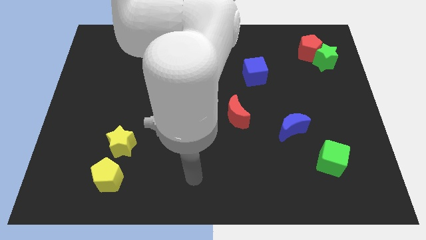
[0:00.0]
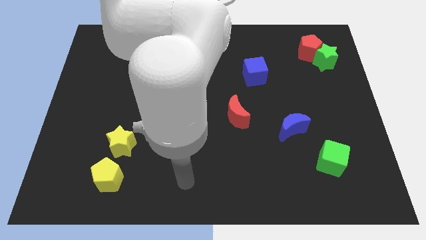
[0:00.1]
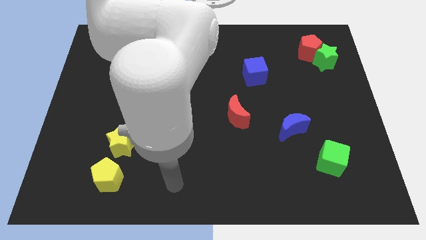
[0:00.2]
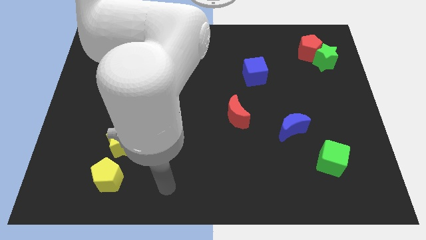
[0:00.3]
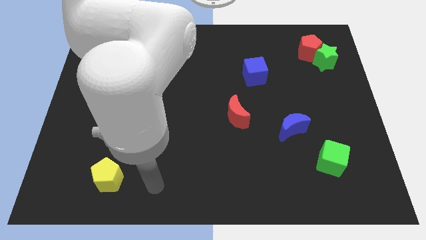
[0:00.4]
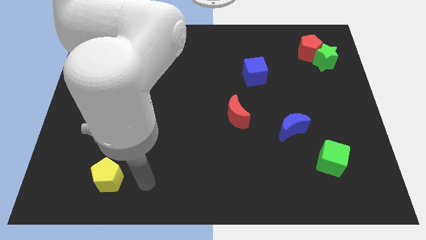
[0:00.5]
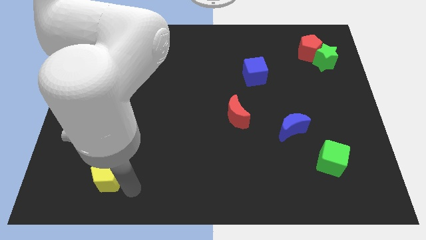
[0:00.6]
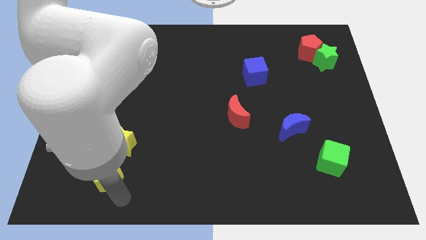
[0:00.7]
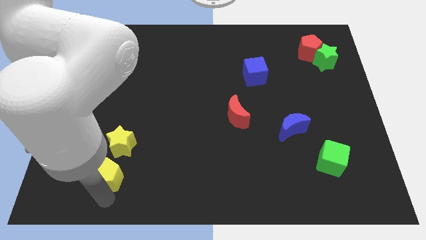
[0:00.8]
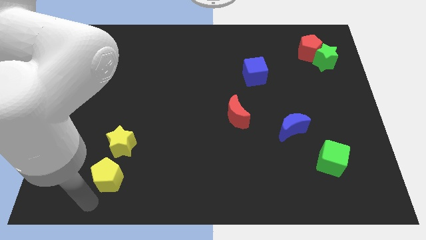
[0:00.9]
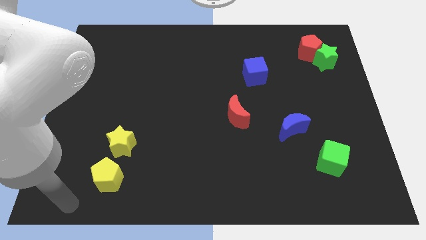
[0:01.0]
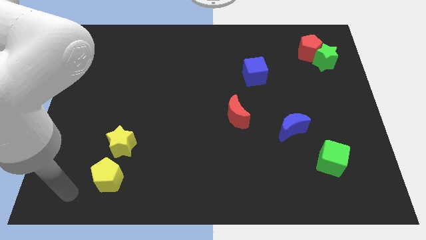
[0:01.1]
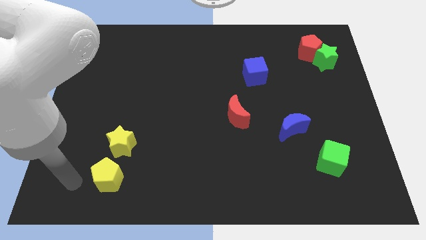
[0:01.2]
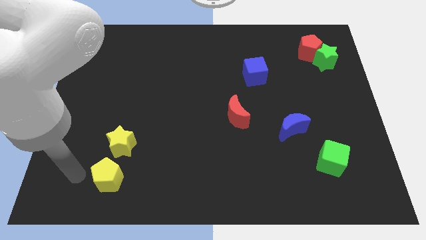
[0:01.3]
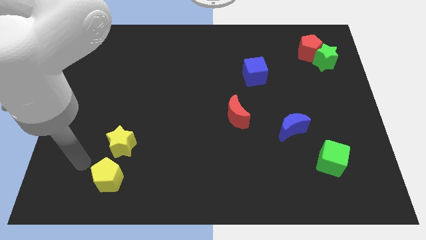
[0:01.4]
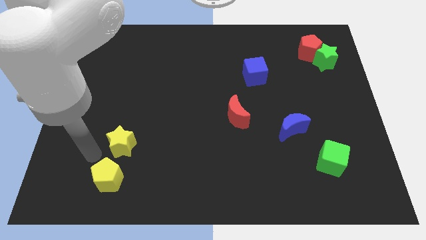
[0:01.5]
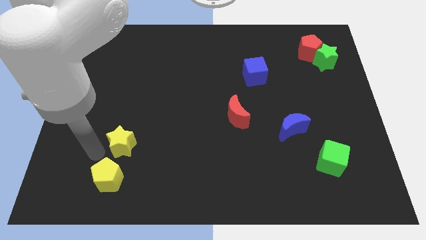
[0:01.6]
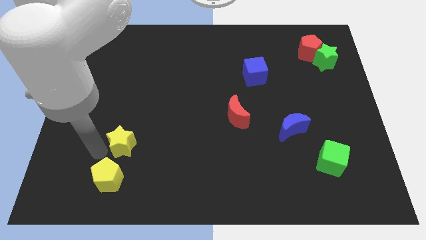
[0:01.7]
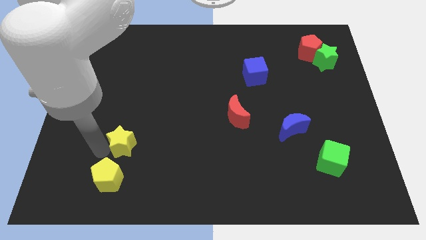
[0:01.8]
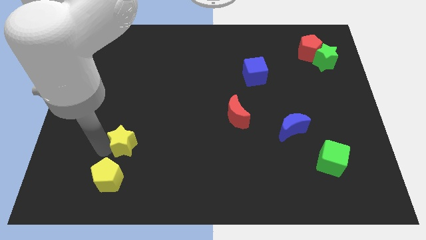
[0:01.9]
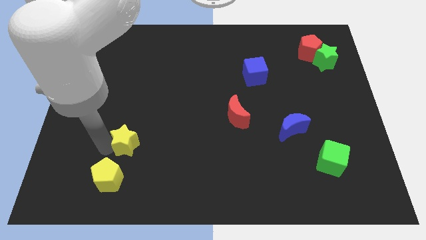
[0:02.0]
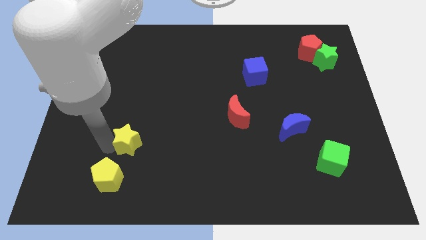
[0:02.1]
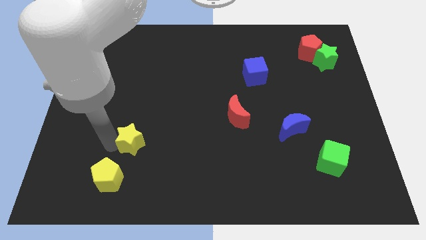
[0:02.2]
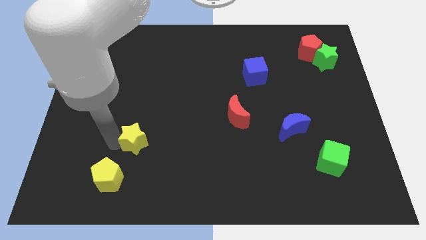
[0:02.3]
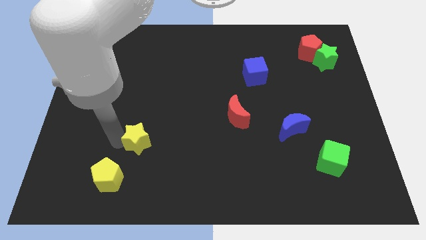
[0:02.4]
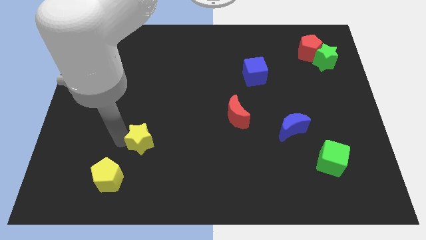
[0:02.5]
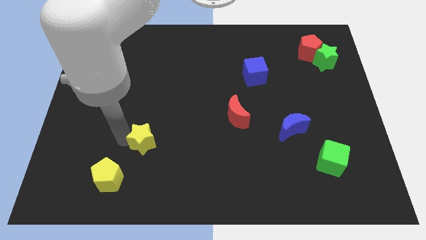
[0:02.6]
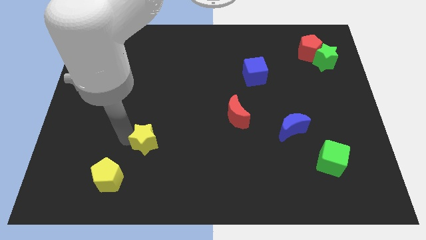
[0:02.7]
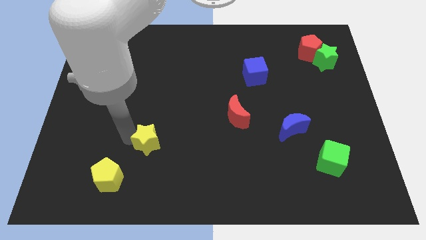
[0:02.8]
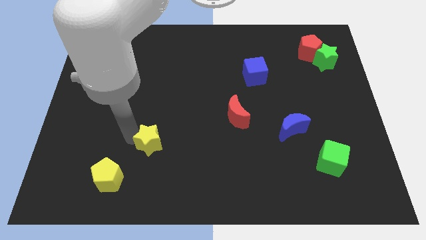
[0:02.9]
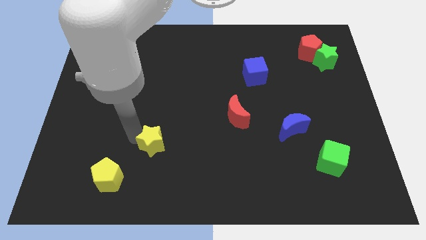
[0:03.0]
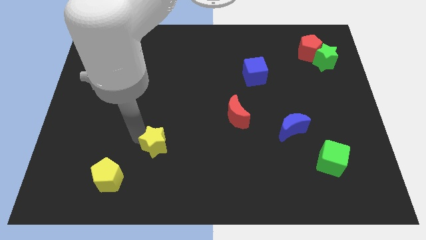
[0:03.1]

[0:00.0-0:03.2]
slightly push the yellow star to the right

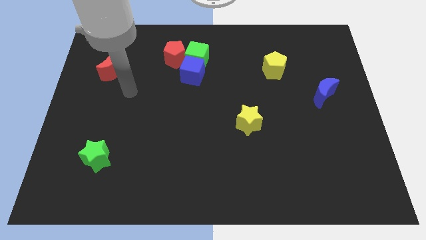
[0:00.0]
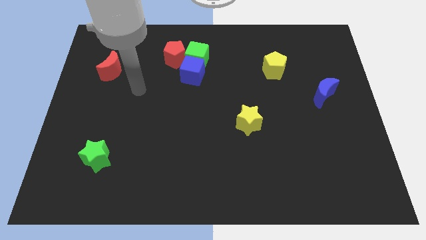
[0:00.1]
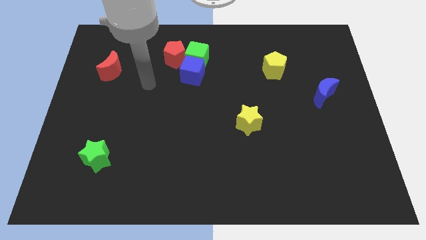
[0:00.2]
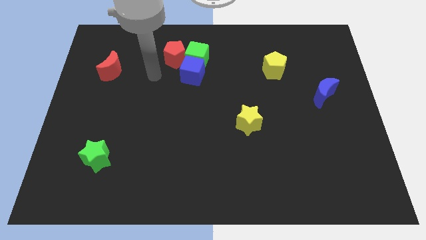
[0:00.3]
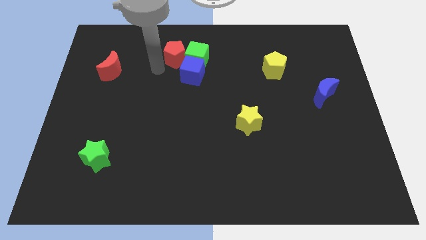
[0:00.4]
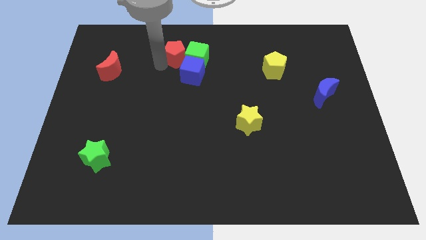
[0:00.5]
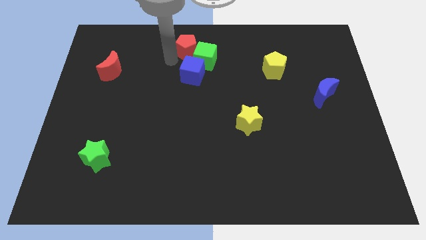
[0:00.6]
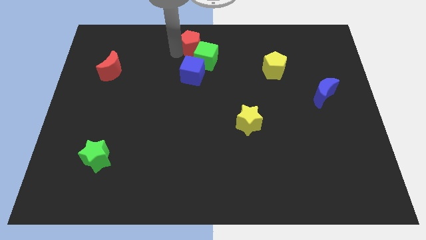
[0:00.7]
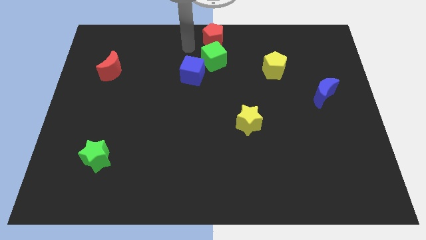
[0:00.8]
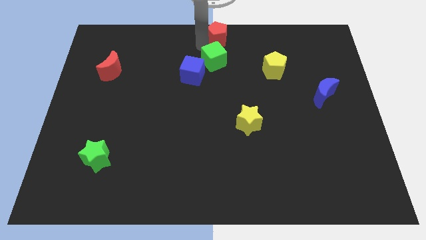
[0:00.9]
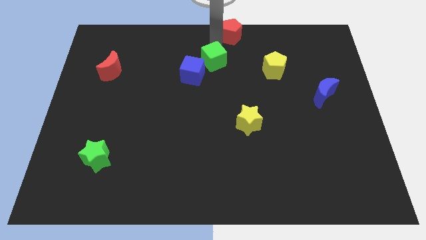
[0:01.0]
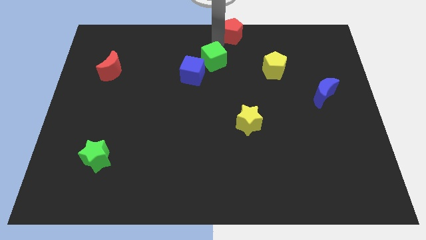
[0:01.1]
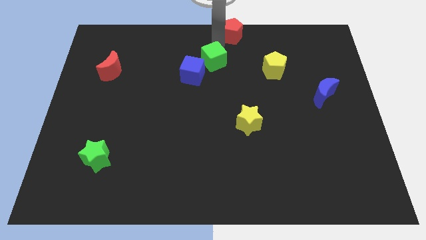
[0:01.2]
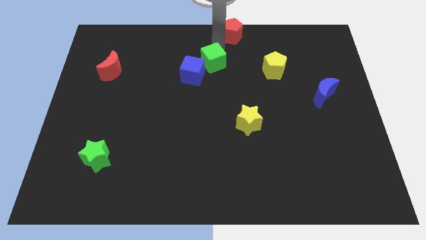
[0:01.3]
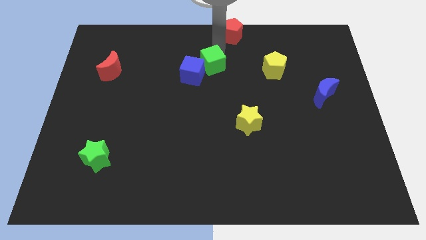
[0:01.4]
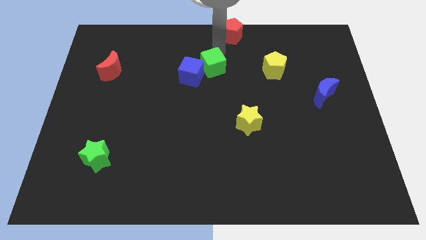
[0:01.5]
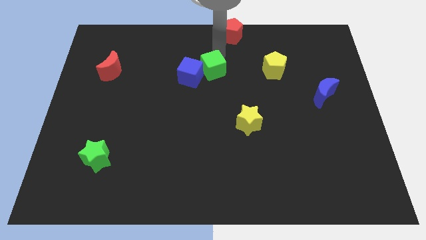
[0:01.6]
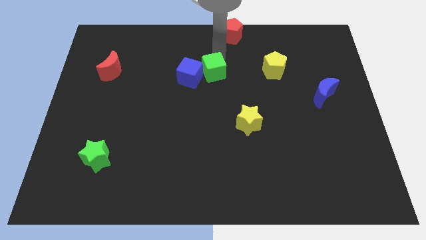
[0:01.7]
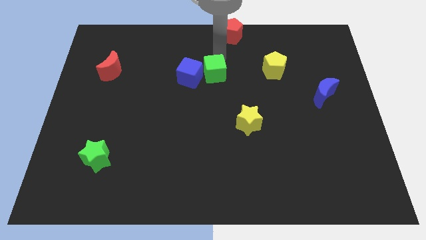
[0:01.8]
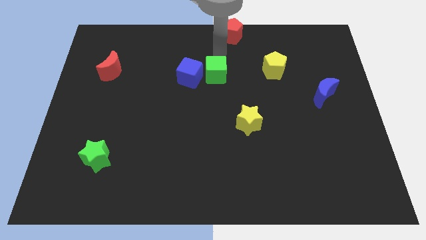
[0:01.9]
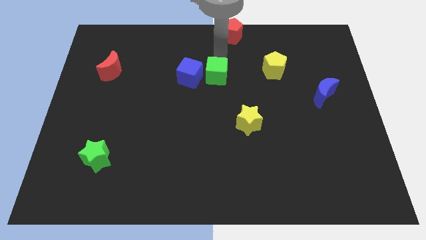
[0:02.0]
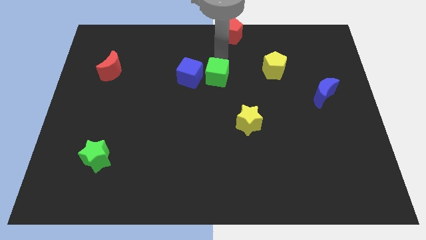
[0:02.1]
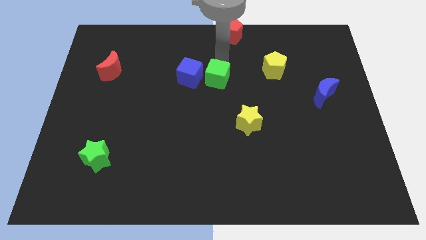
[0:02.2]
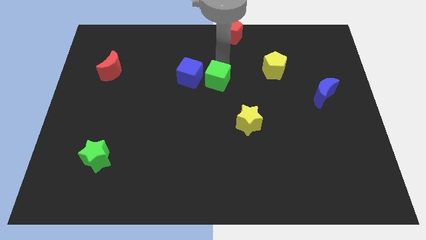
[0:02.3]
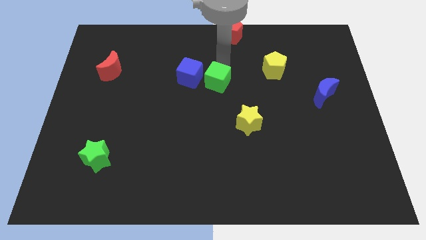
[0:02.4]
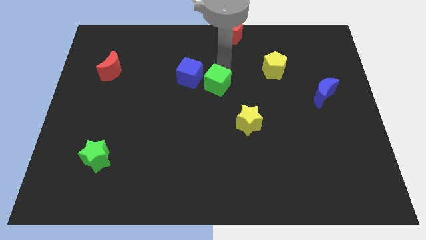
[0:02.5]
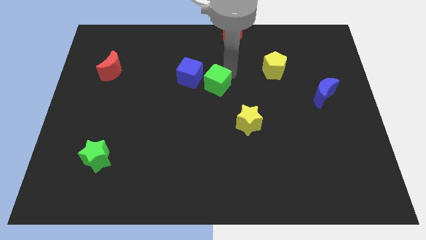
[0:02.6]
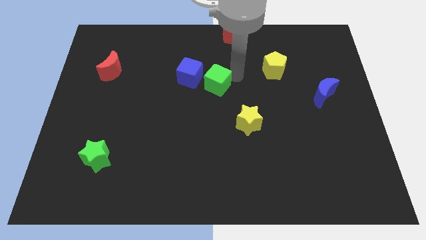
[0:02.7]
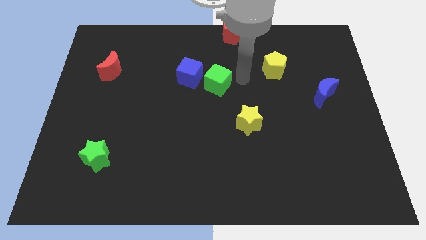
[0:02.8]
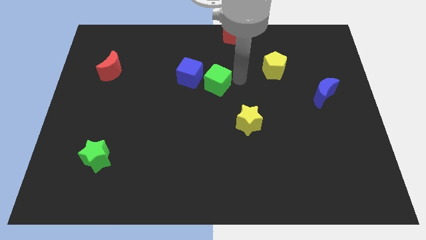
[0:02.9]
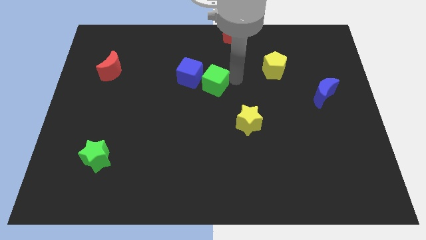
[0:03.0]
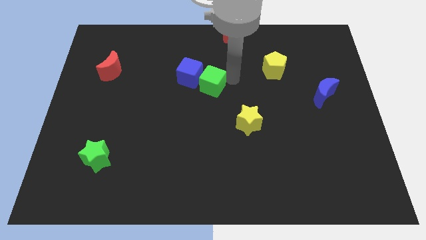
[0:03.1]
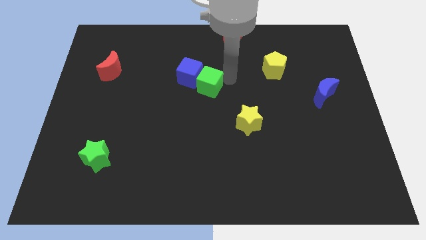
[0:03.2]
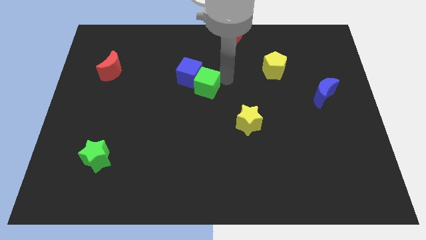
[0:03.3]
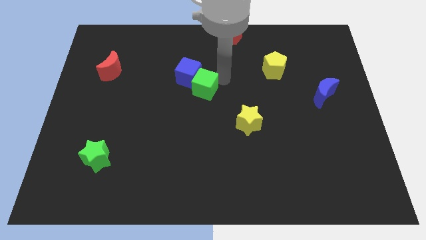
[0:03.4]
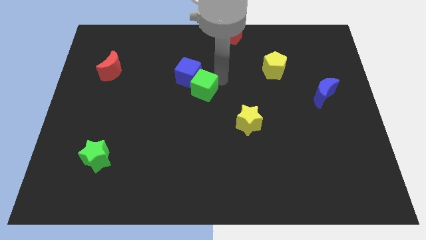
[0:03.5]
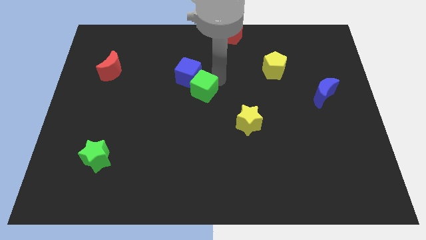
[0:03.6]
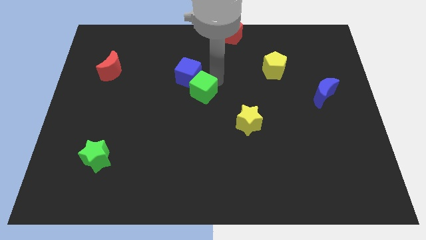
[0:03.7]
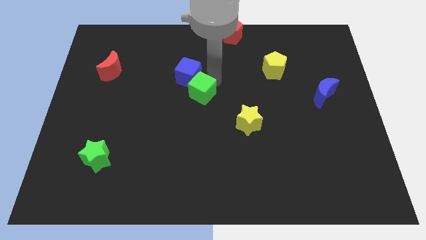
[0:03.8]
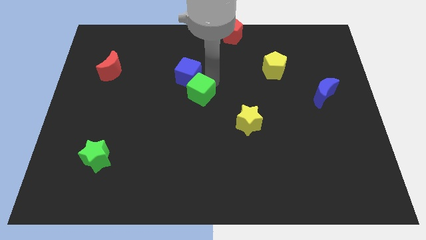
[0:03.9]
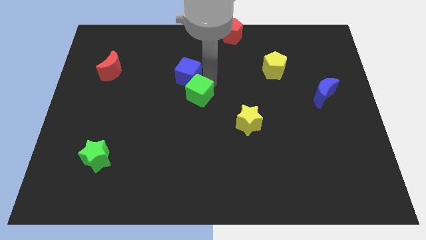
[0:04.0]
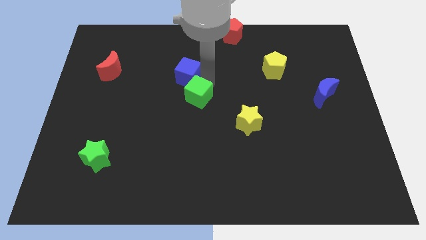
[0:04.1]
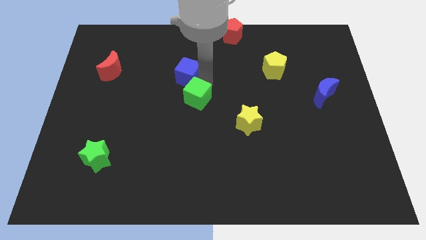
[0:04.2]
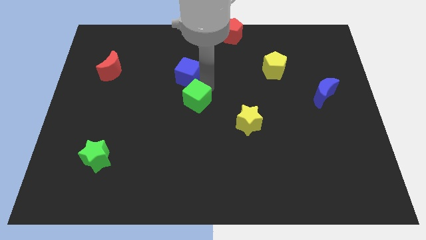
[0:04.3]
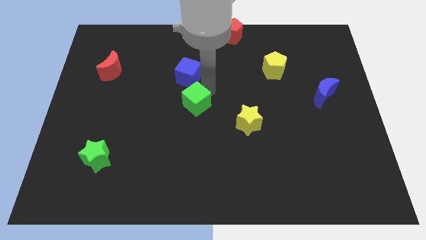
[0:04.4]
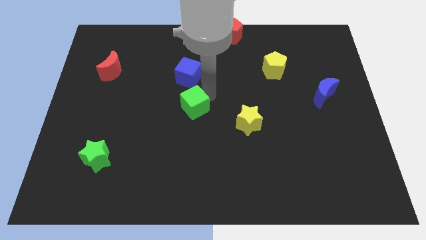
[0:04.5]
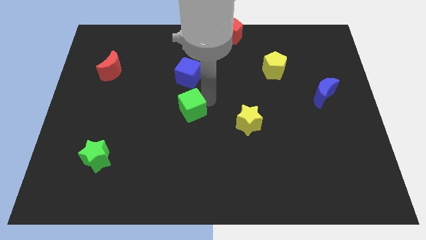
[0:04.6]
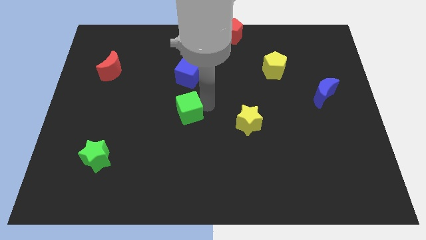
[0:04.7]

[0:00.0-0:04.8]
slide the green cube downwards and to the left a little
